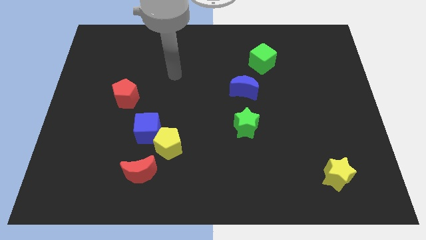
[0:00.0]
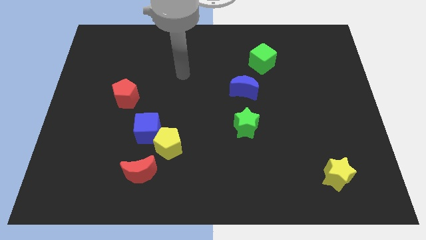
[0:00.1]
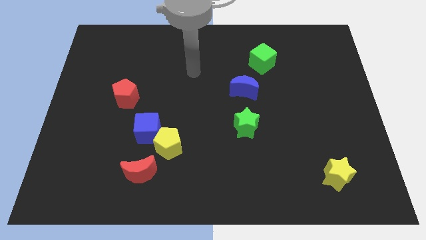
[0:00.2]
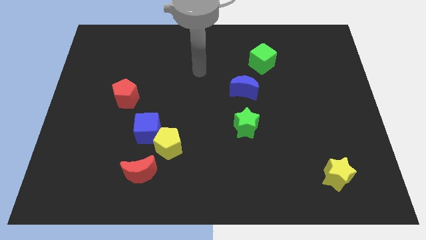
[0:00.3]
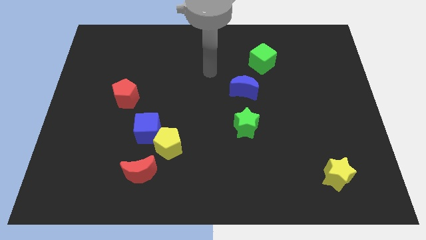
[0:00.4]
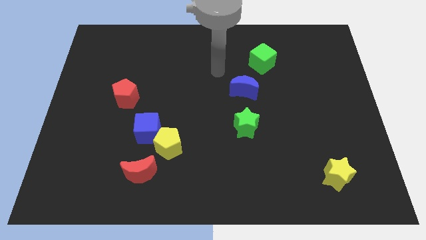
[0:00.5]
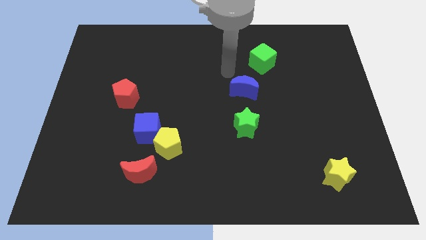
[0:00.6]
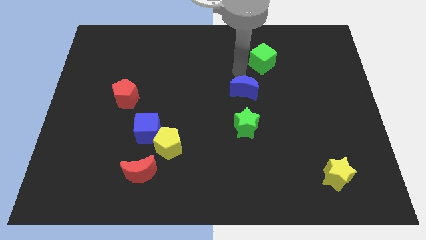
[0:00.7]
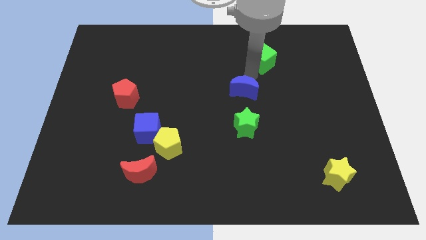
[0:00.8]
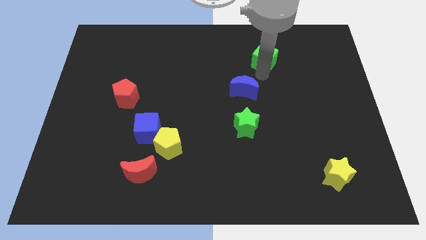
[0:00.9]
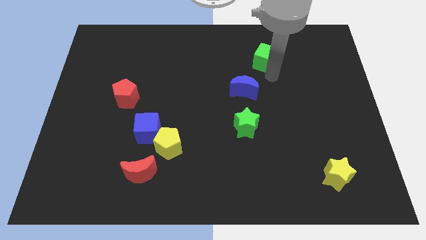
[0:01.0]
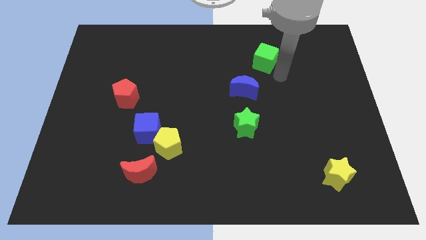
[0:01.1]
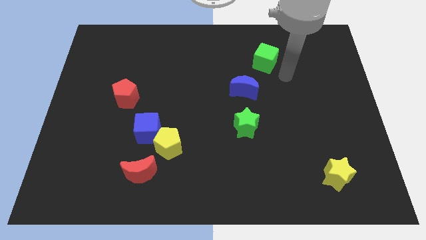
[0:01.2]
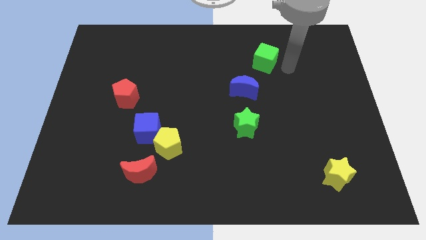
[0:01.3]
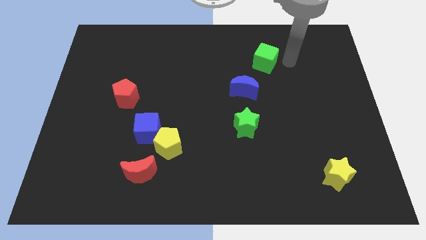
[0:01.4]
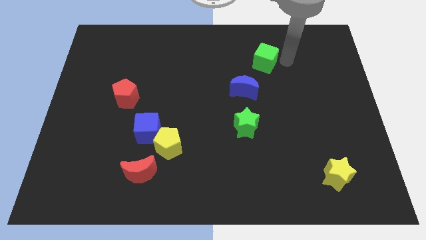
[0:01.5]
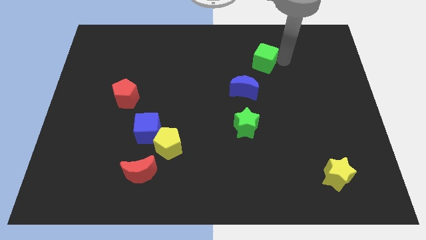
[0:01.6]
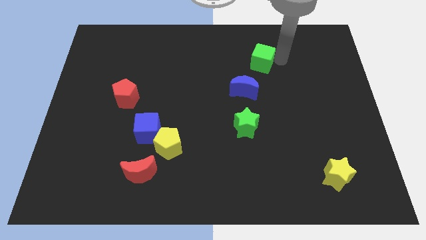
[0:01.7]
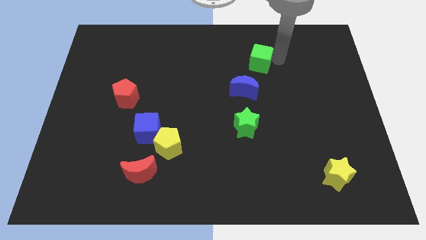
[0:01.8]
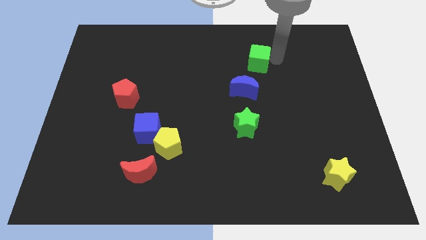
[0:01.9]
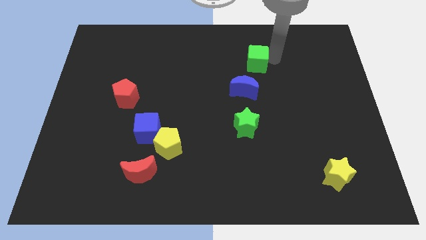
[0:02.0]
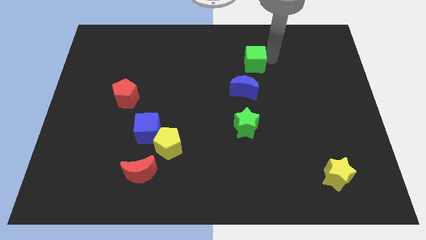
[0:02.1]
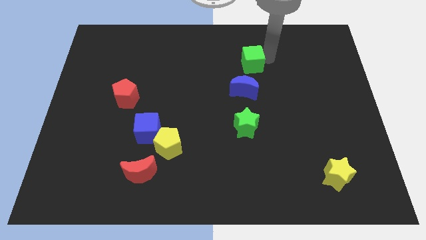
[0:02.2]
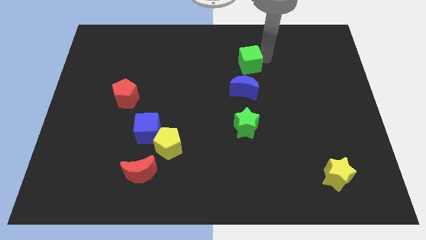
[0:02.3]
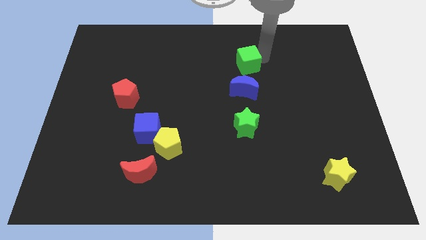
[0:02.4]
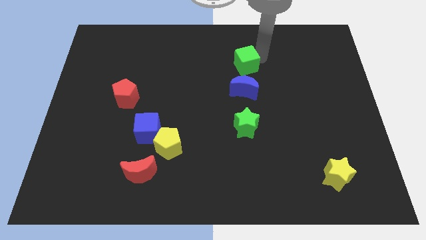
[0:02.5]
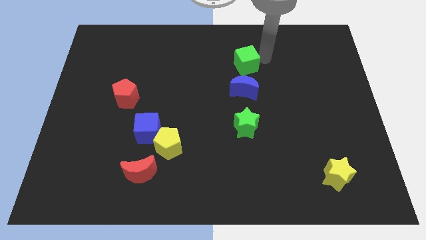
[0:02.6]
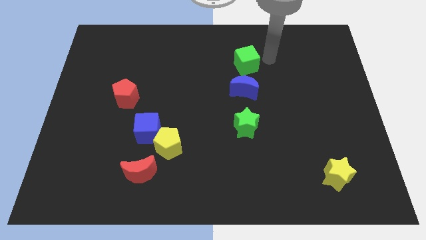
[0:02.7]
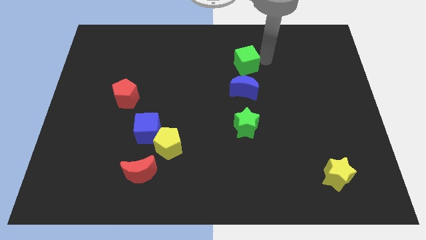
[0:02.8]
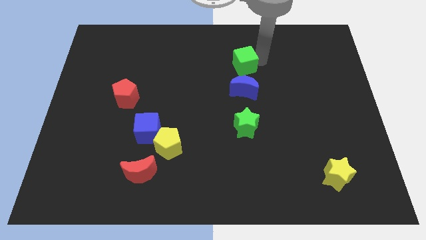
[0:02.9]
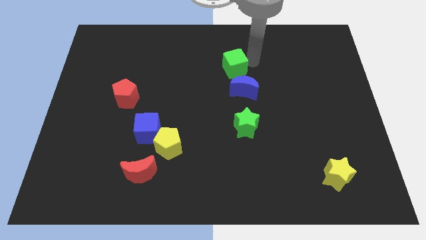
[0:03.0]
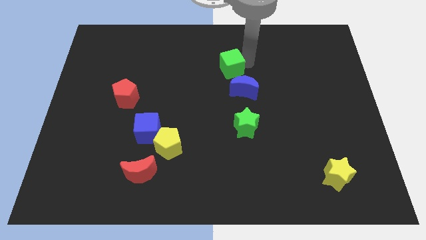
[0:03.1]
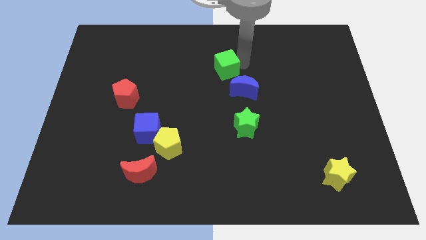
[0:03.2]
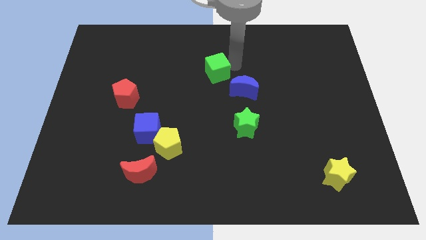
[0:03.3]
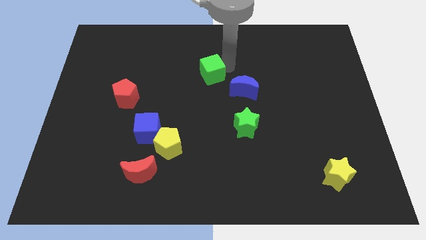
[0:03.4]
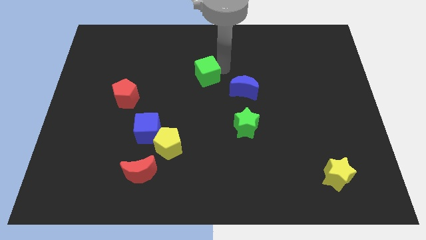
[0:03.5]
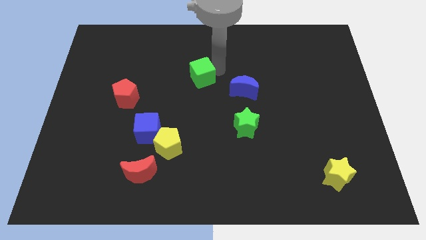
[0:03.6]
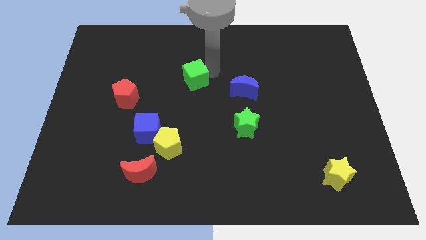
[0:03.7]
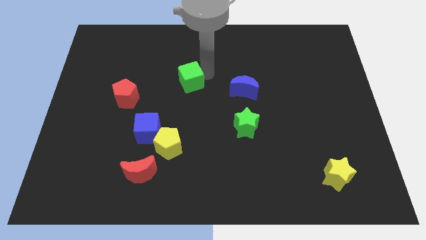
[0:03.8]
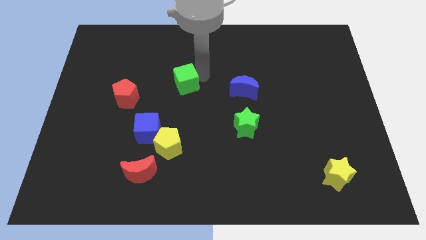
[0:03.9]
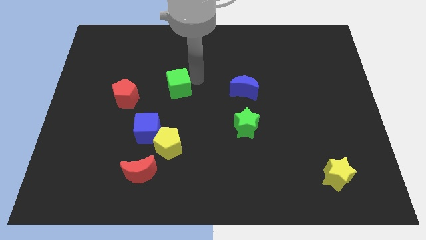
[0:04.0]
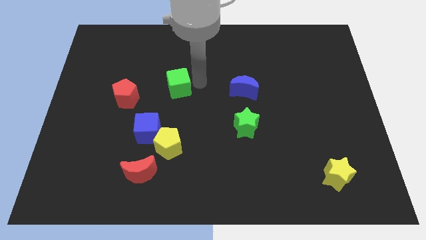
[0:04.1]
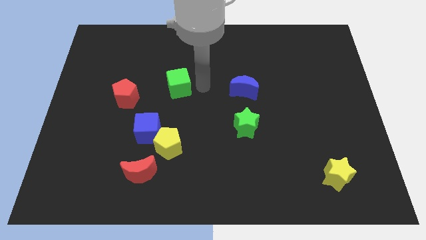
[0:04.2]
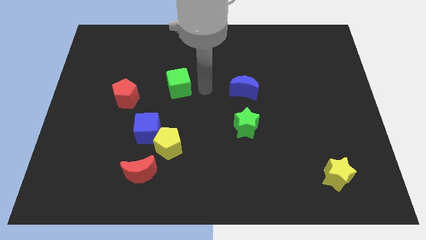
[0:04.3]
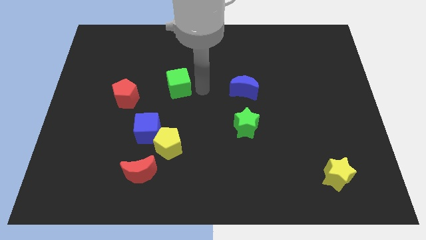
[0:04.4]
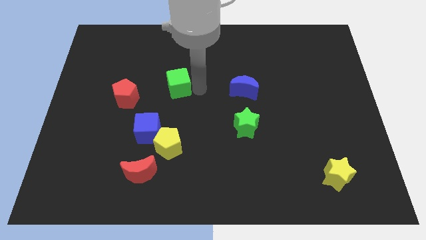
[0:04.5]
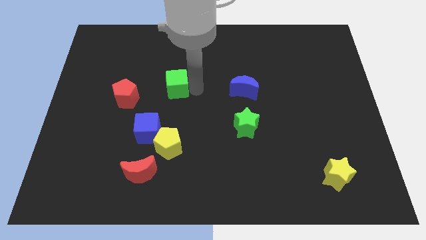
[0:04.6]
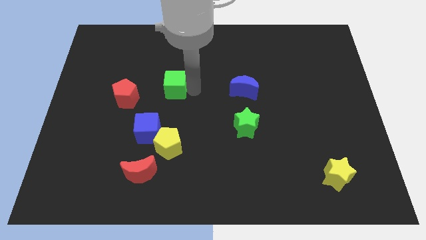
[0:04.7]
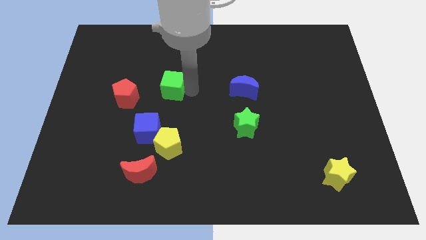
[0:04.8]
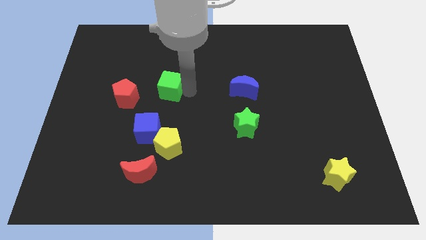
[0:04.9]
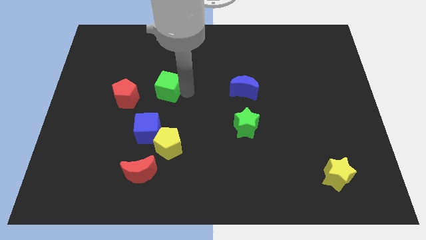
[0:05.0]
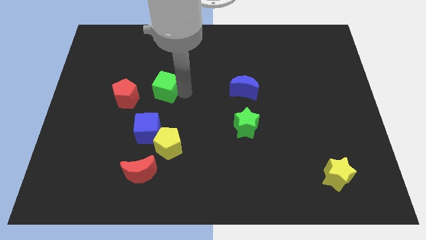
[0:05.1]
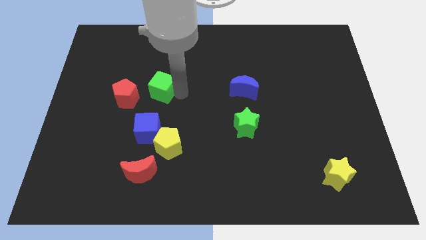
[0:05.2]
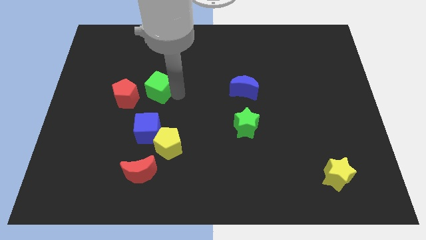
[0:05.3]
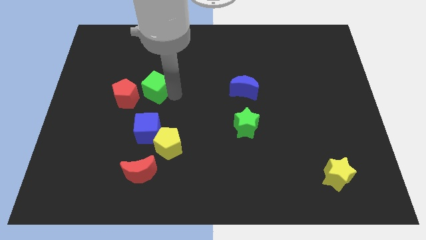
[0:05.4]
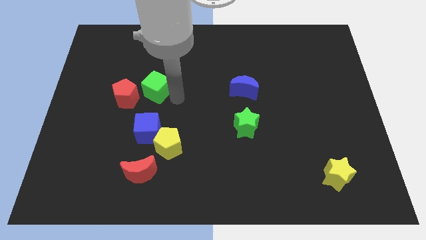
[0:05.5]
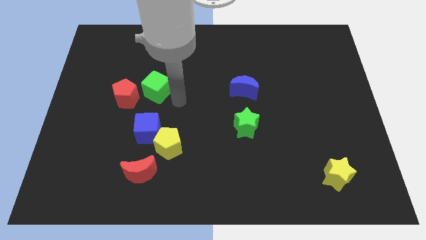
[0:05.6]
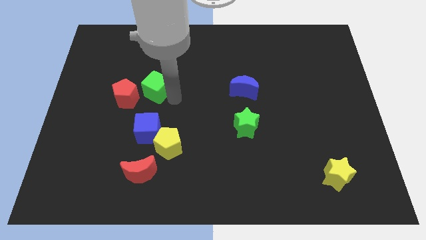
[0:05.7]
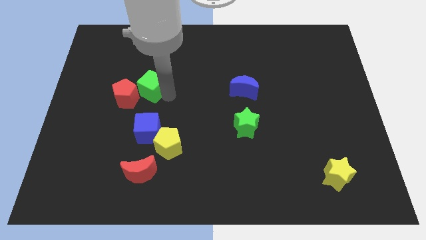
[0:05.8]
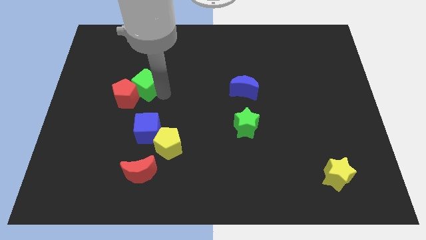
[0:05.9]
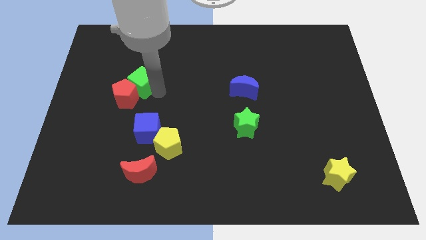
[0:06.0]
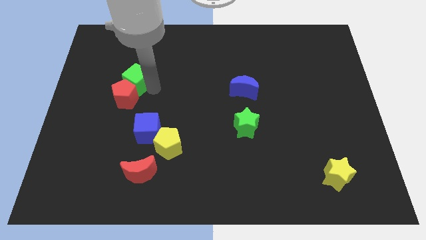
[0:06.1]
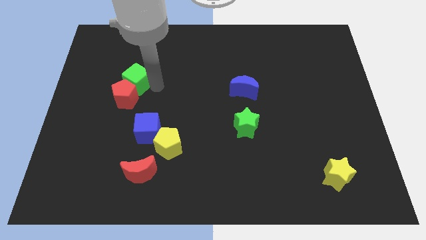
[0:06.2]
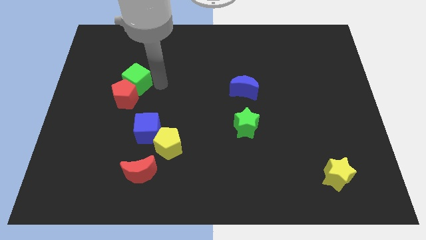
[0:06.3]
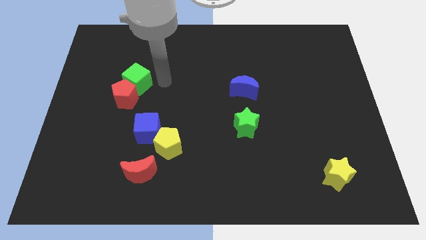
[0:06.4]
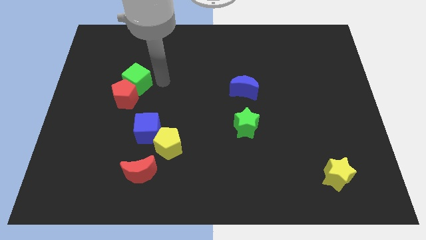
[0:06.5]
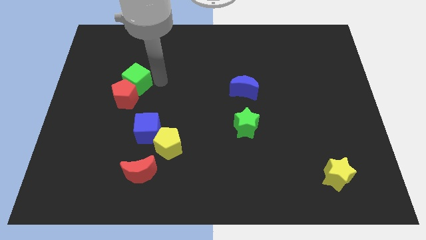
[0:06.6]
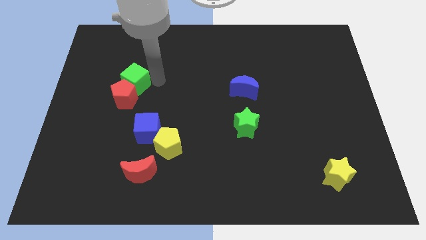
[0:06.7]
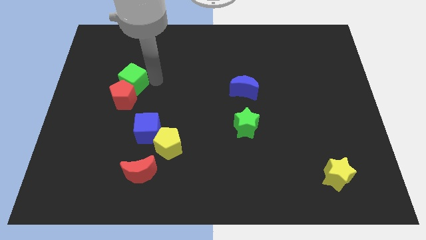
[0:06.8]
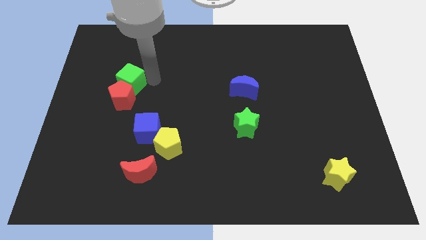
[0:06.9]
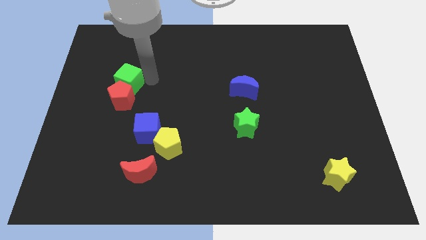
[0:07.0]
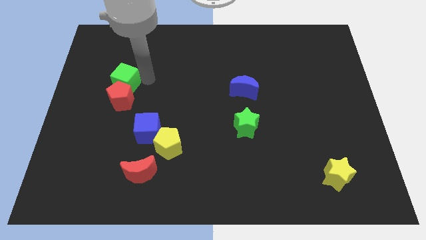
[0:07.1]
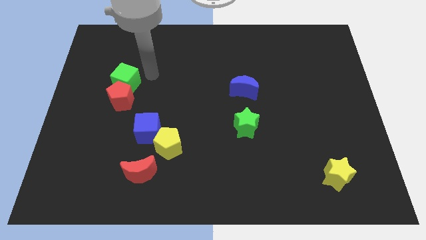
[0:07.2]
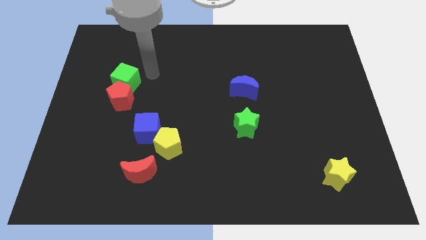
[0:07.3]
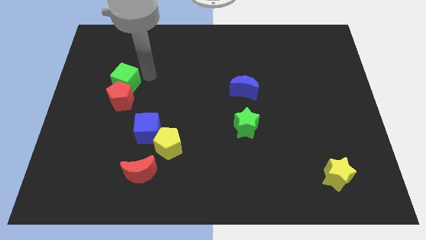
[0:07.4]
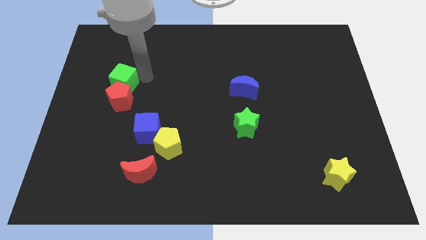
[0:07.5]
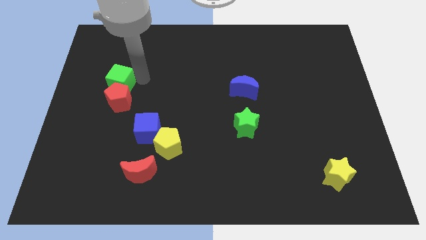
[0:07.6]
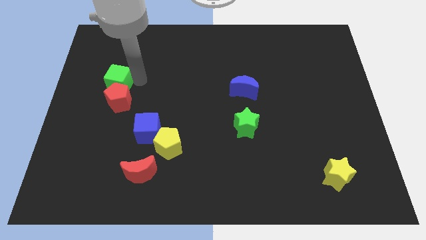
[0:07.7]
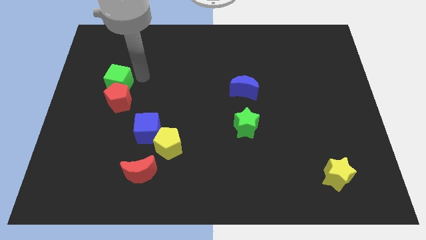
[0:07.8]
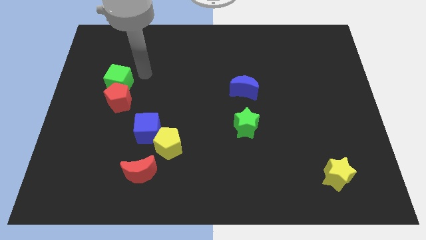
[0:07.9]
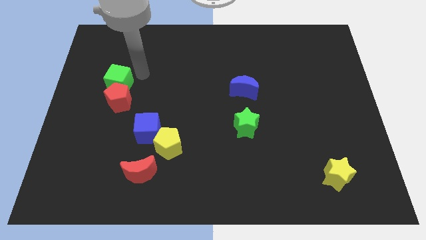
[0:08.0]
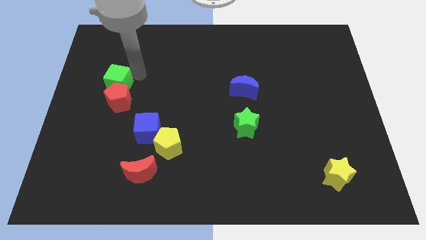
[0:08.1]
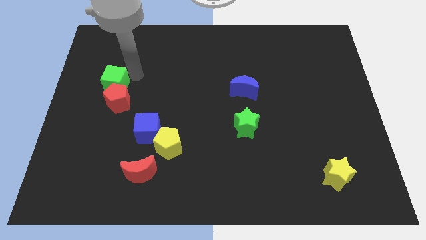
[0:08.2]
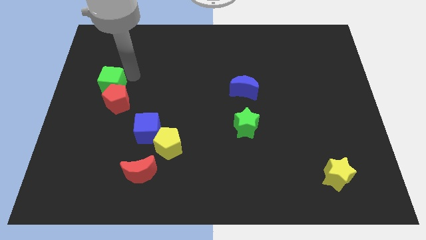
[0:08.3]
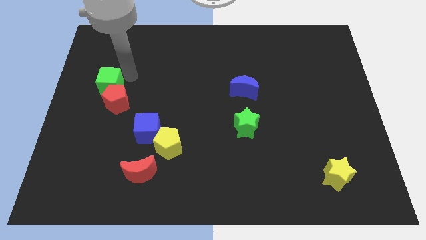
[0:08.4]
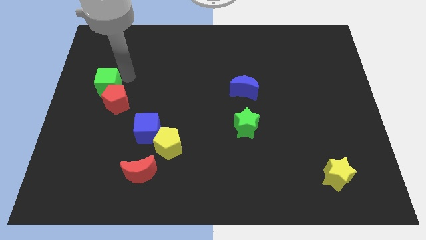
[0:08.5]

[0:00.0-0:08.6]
put the green cube to the left side of the board
